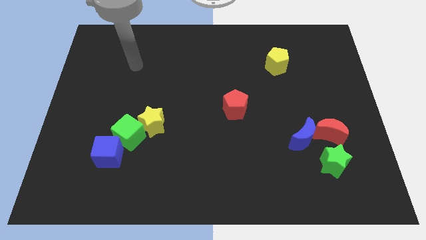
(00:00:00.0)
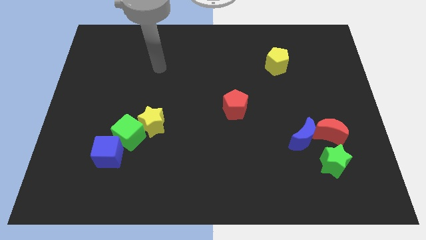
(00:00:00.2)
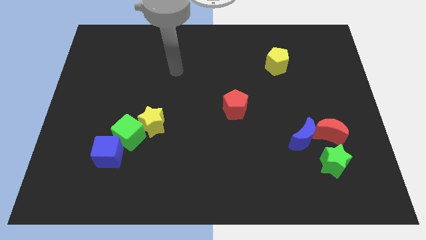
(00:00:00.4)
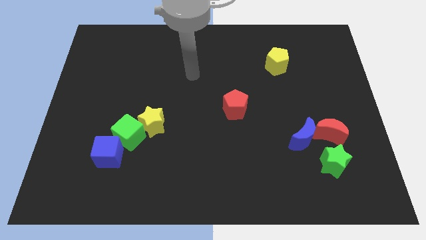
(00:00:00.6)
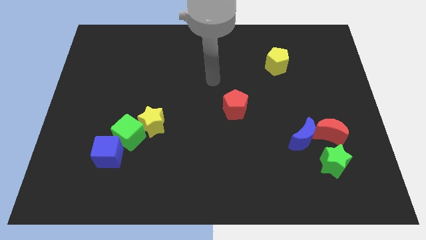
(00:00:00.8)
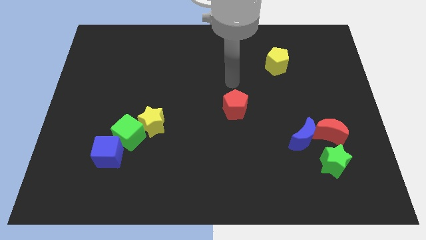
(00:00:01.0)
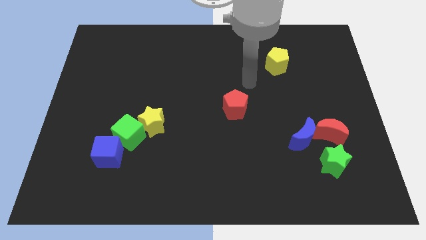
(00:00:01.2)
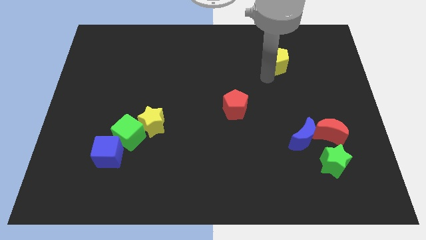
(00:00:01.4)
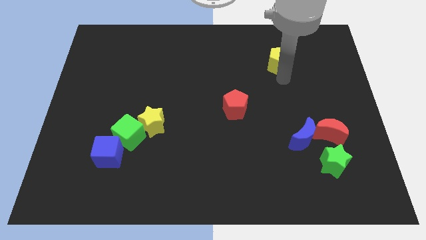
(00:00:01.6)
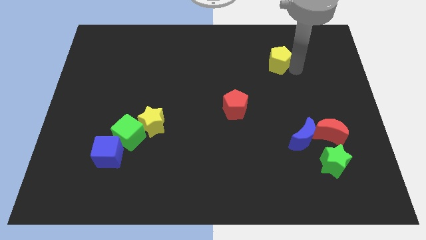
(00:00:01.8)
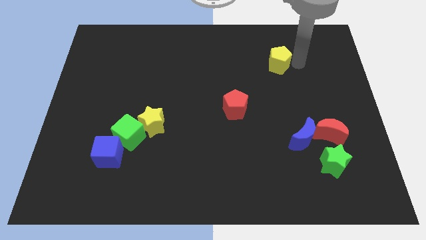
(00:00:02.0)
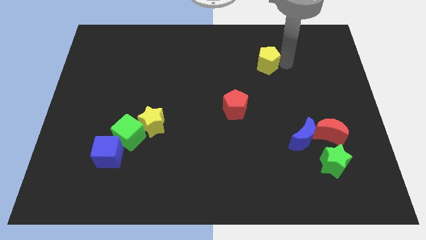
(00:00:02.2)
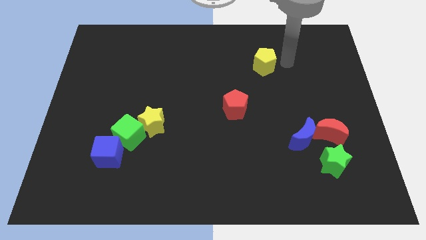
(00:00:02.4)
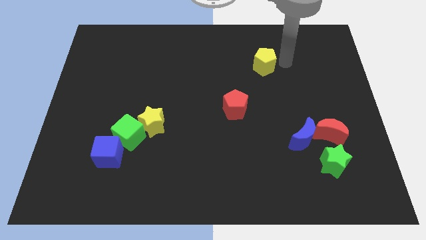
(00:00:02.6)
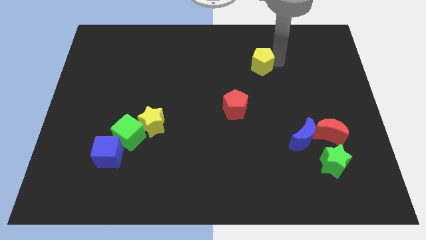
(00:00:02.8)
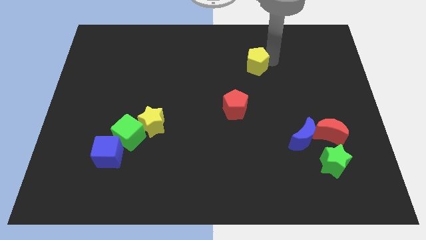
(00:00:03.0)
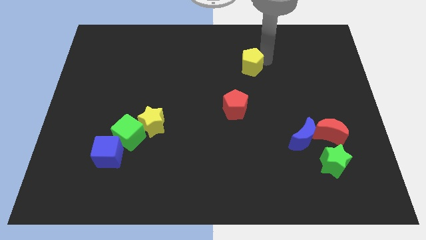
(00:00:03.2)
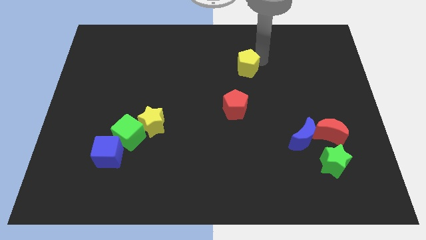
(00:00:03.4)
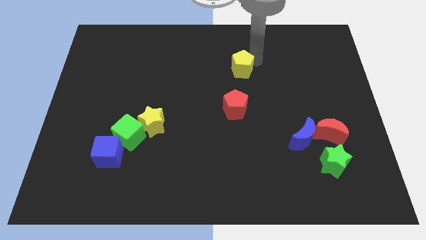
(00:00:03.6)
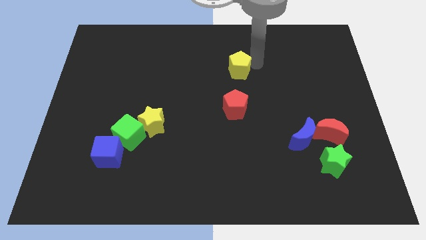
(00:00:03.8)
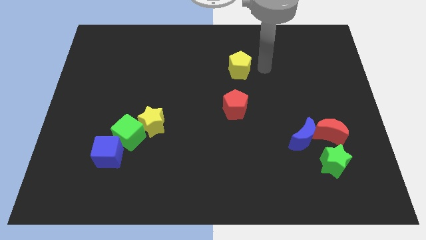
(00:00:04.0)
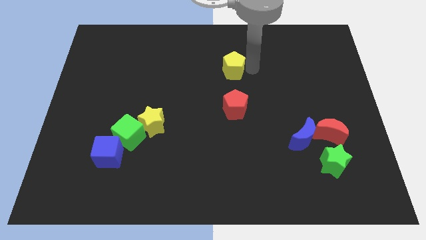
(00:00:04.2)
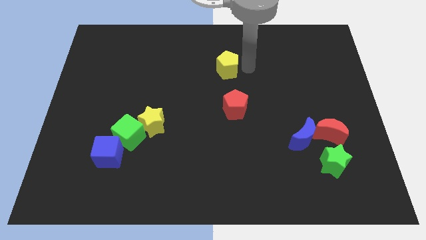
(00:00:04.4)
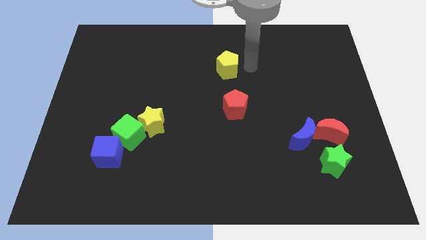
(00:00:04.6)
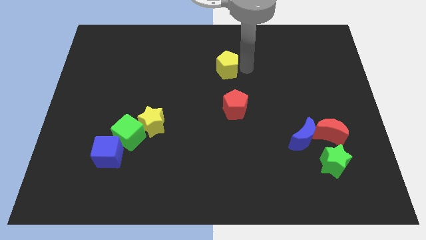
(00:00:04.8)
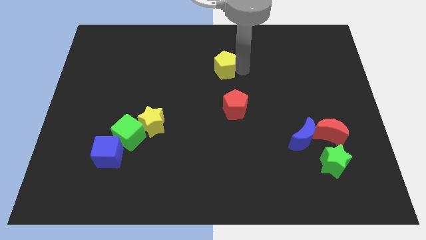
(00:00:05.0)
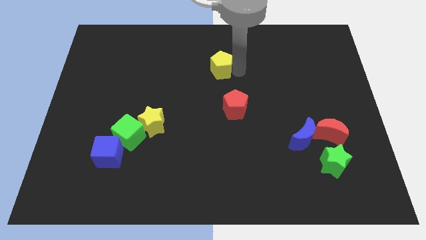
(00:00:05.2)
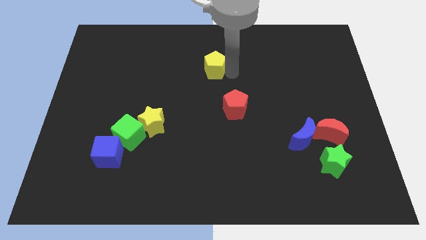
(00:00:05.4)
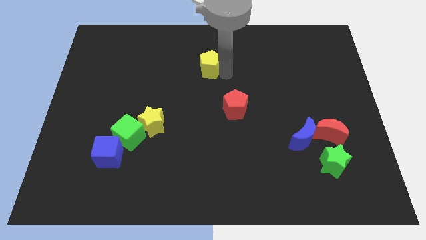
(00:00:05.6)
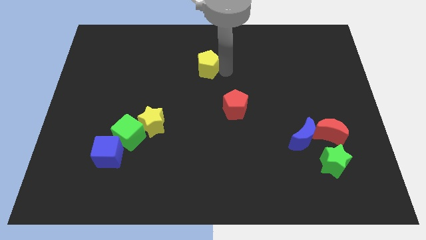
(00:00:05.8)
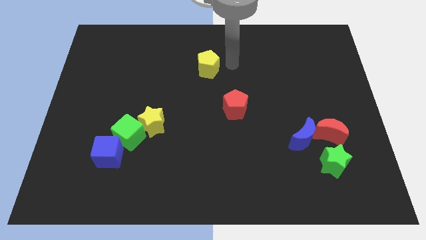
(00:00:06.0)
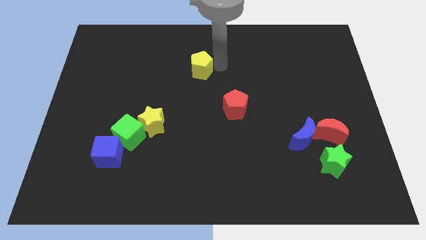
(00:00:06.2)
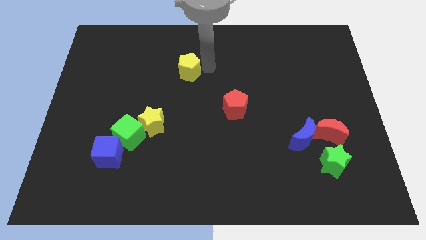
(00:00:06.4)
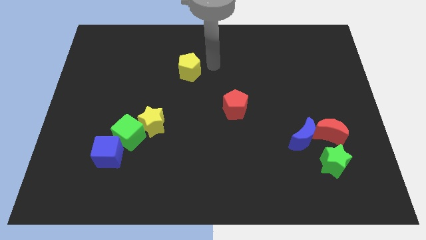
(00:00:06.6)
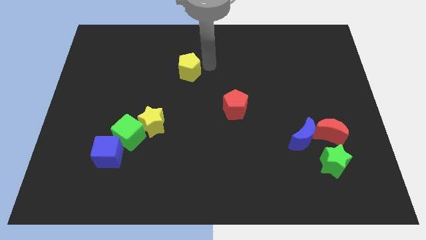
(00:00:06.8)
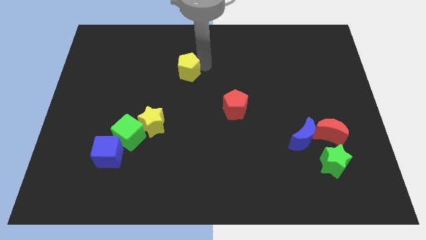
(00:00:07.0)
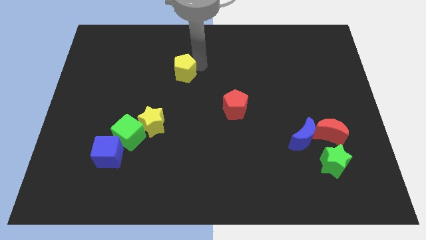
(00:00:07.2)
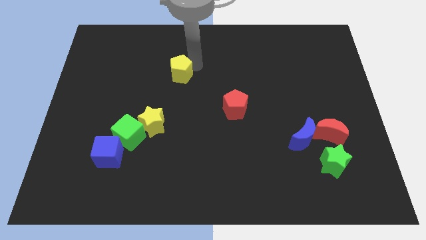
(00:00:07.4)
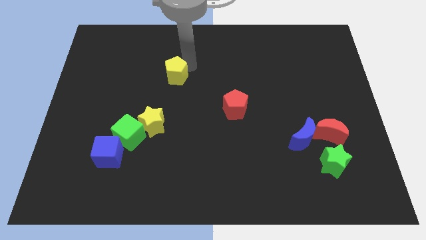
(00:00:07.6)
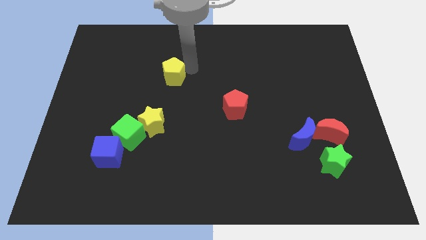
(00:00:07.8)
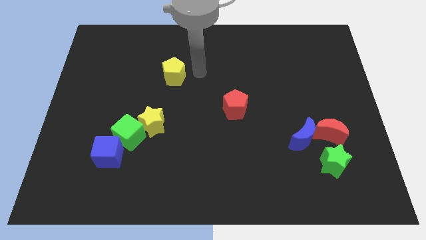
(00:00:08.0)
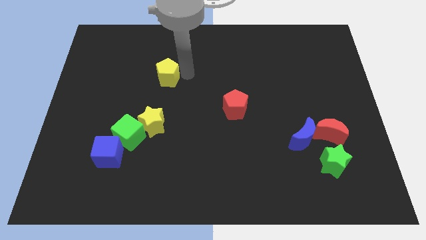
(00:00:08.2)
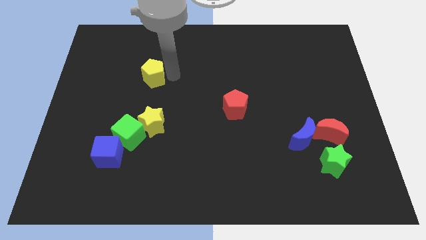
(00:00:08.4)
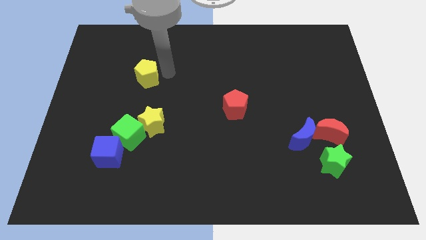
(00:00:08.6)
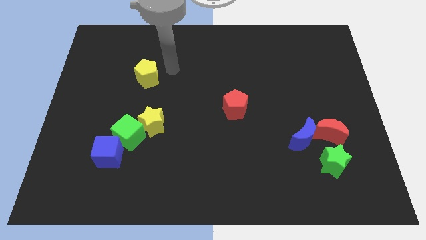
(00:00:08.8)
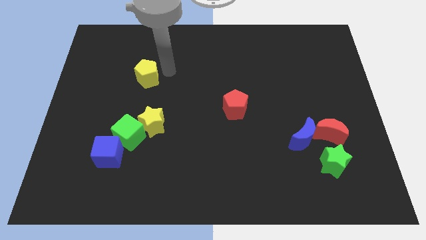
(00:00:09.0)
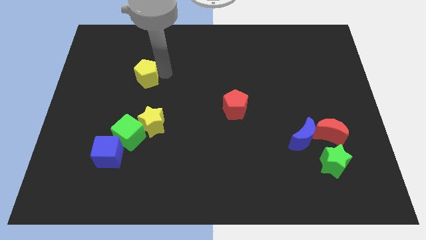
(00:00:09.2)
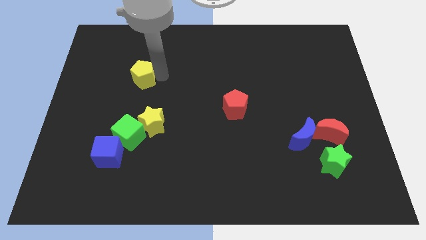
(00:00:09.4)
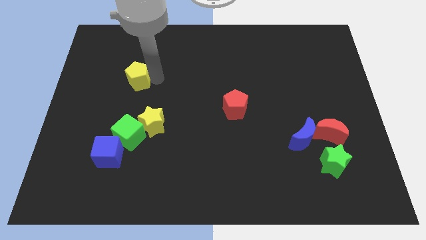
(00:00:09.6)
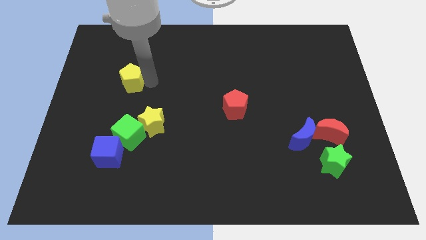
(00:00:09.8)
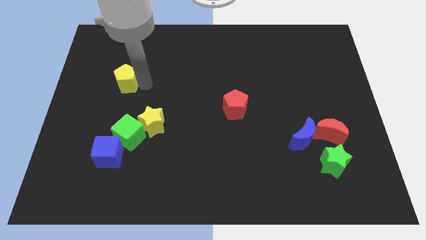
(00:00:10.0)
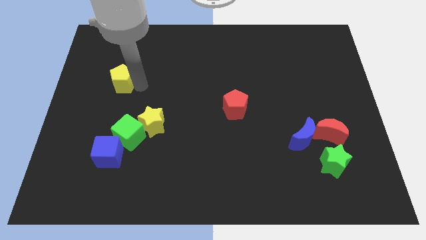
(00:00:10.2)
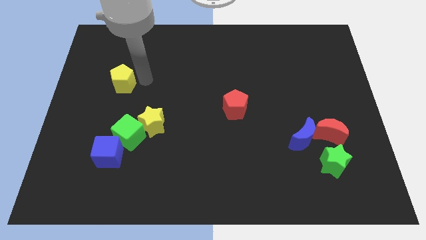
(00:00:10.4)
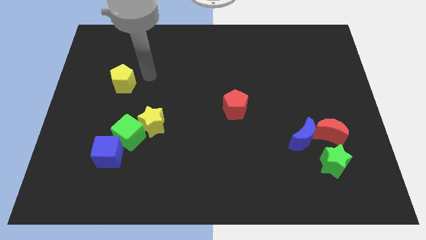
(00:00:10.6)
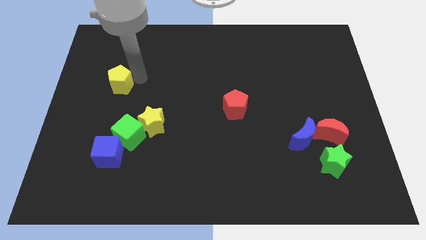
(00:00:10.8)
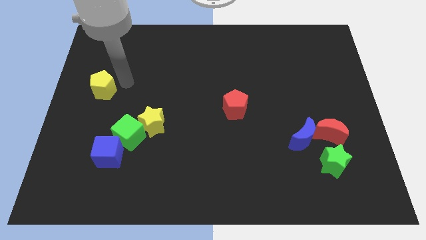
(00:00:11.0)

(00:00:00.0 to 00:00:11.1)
put the yellow pentagon to the left side of the board
